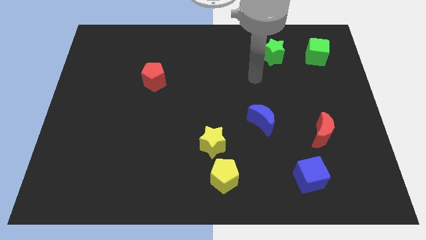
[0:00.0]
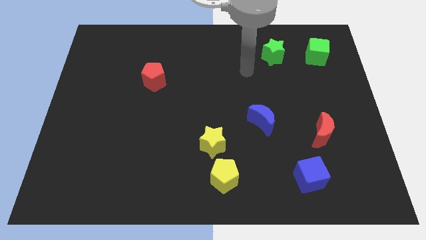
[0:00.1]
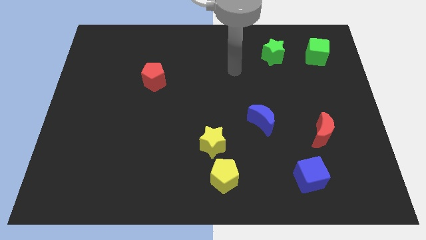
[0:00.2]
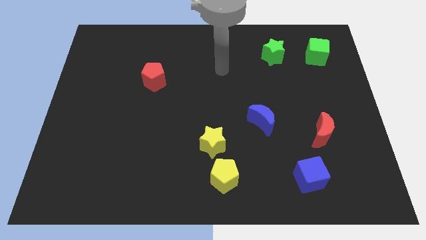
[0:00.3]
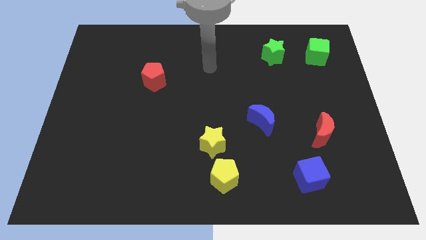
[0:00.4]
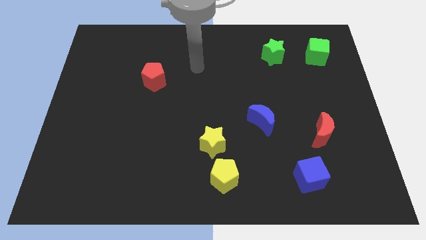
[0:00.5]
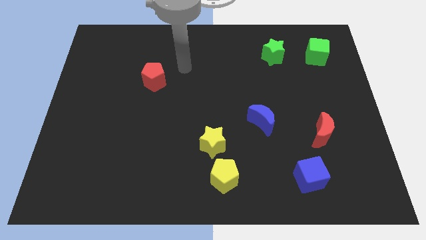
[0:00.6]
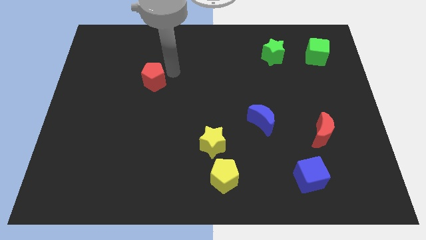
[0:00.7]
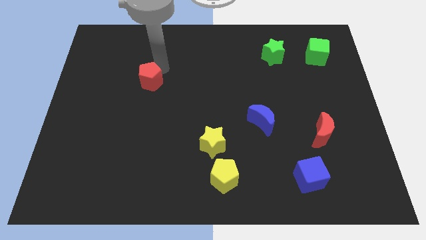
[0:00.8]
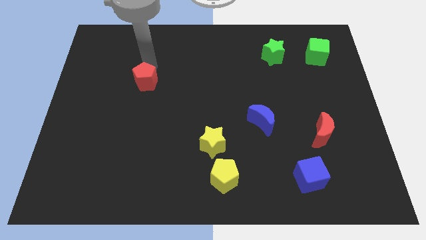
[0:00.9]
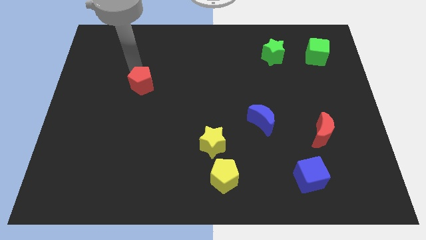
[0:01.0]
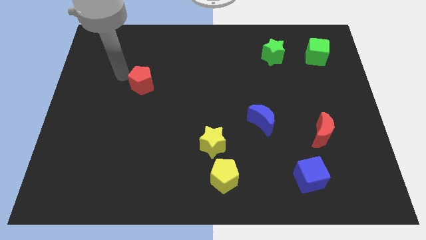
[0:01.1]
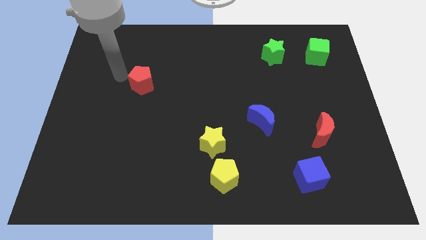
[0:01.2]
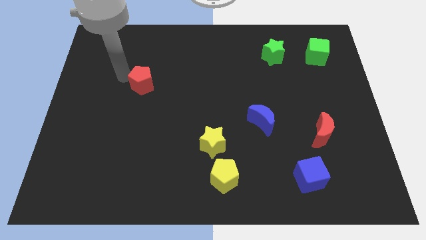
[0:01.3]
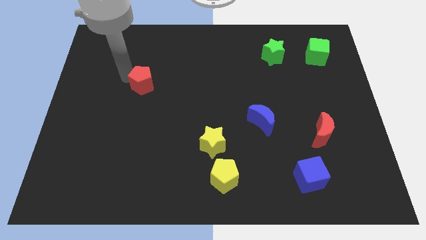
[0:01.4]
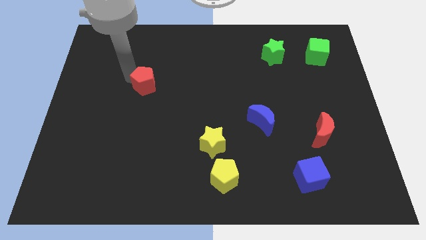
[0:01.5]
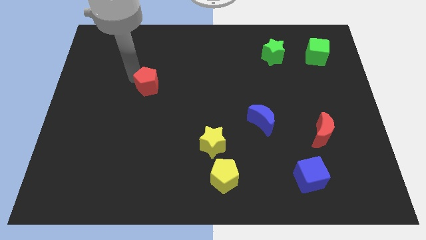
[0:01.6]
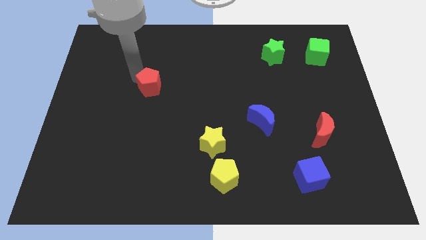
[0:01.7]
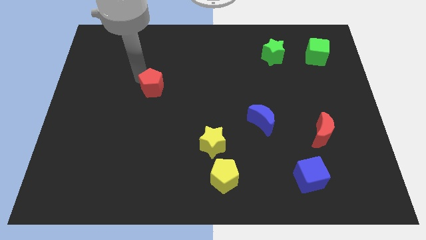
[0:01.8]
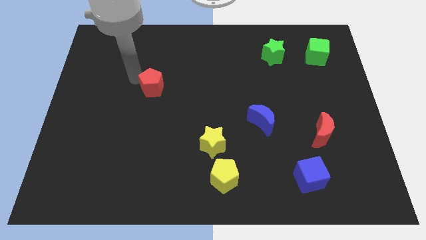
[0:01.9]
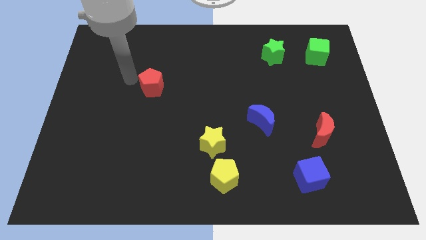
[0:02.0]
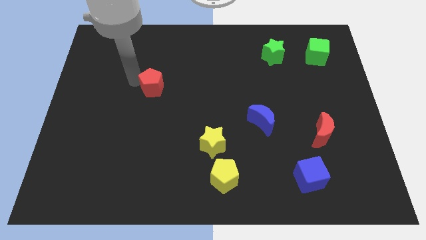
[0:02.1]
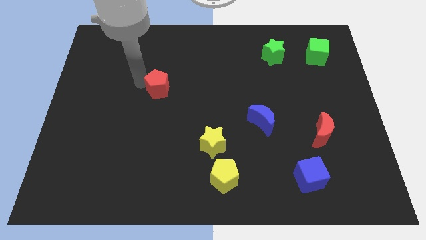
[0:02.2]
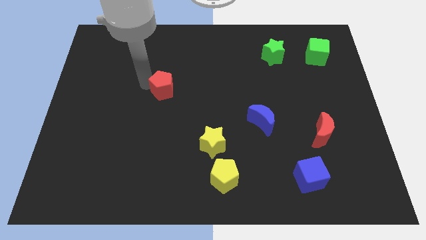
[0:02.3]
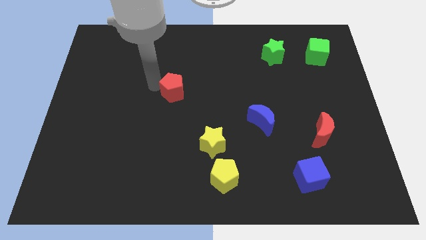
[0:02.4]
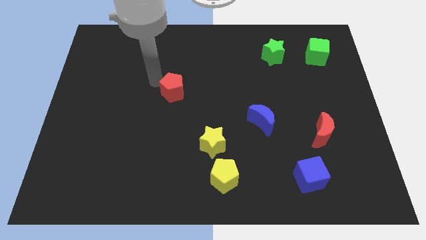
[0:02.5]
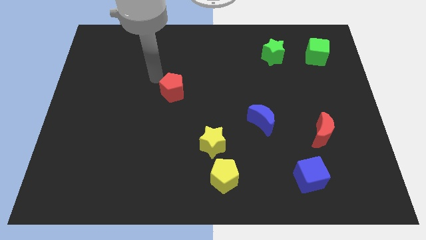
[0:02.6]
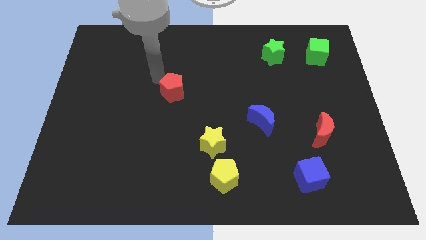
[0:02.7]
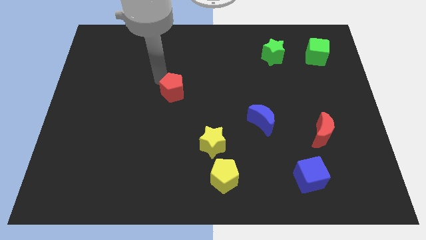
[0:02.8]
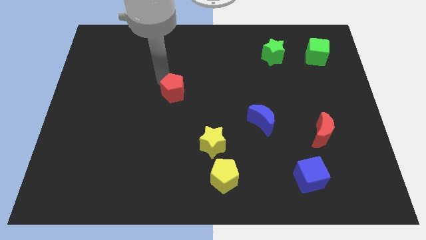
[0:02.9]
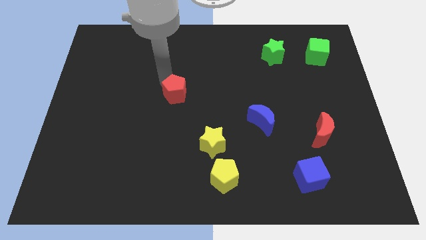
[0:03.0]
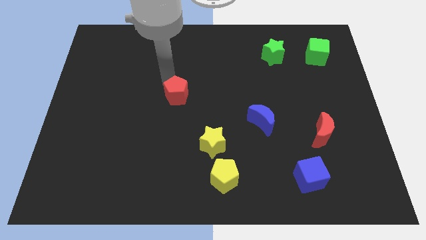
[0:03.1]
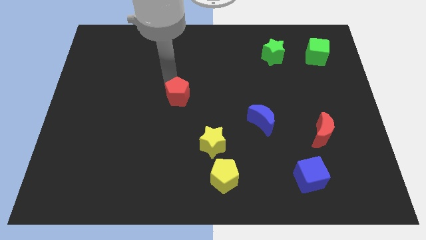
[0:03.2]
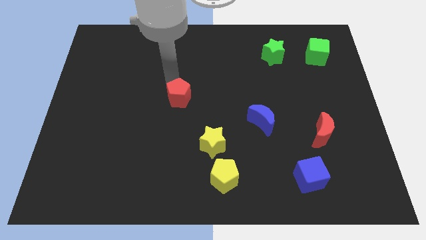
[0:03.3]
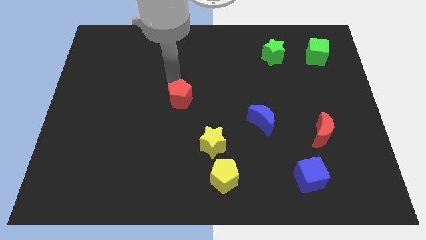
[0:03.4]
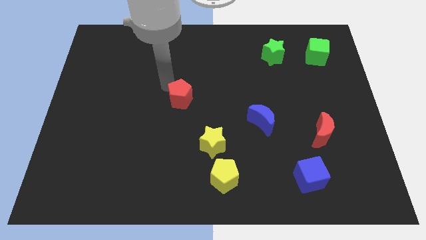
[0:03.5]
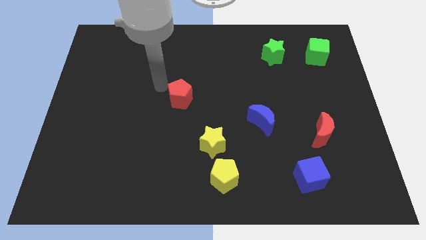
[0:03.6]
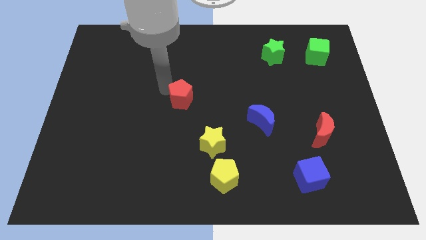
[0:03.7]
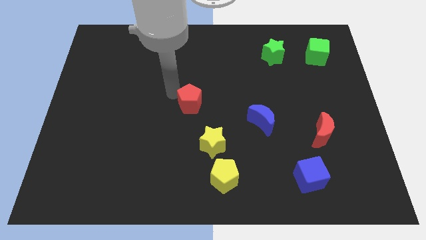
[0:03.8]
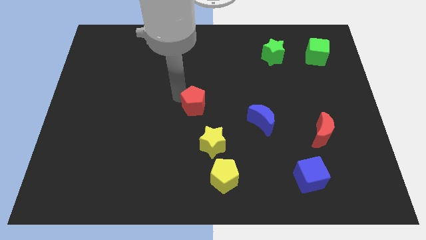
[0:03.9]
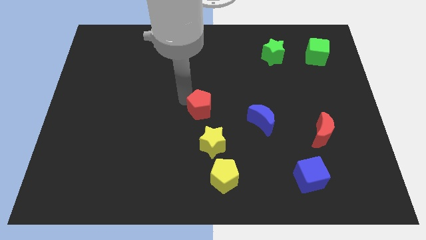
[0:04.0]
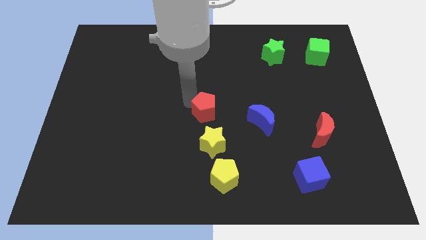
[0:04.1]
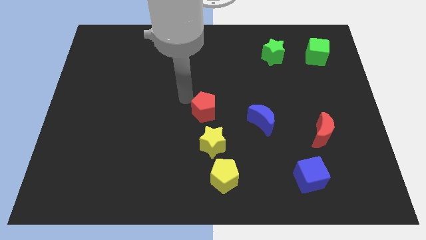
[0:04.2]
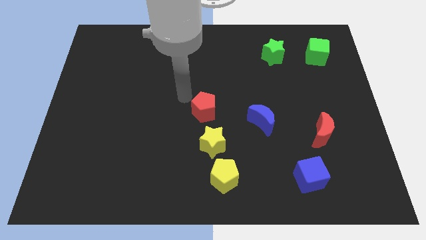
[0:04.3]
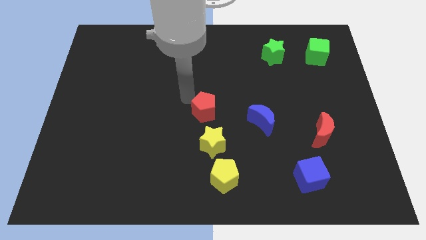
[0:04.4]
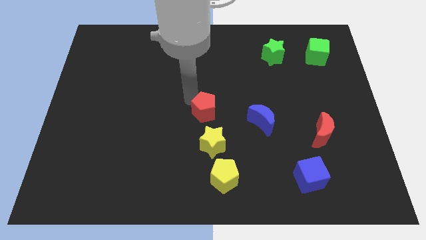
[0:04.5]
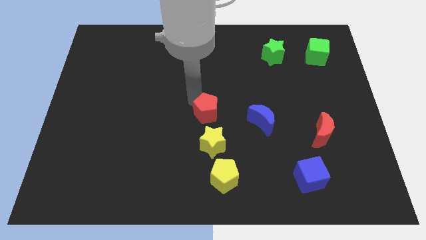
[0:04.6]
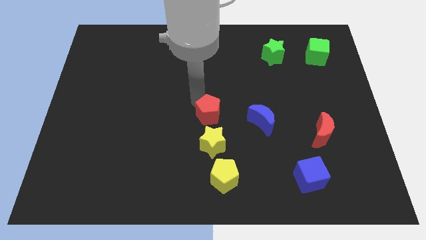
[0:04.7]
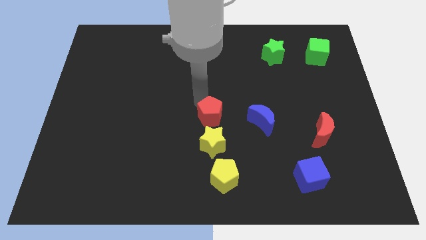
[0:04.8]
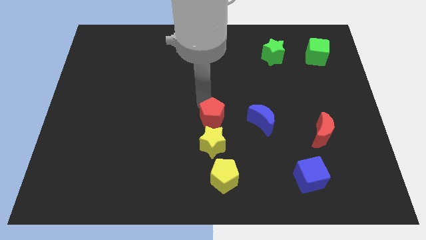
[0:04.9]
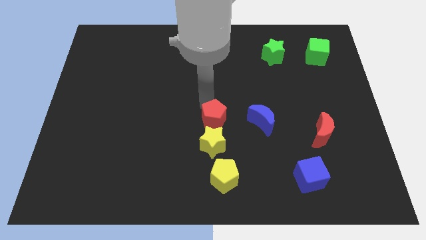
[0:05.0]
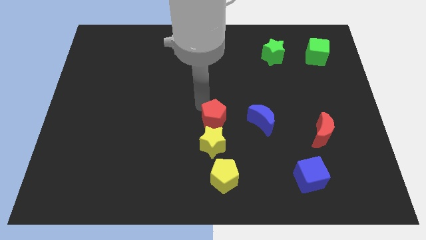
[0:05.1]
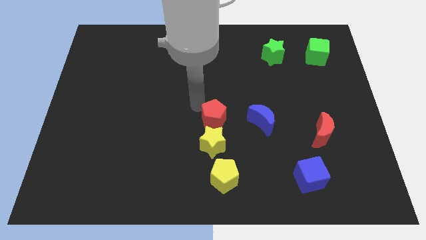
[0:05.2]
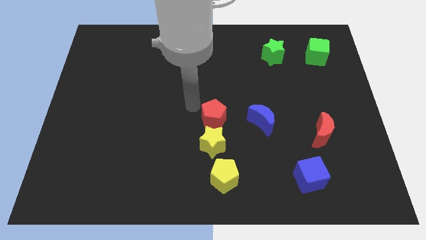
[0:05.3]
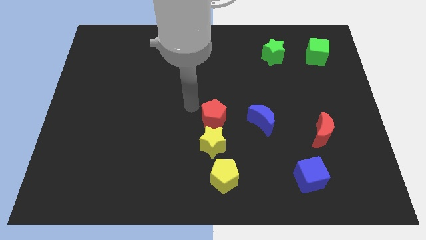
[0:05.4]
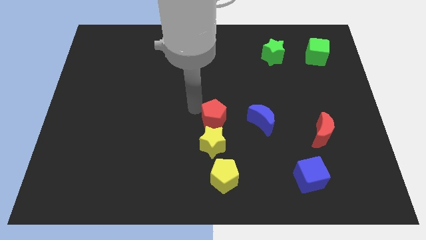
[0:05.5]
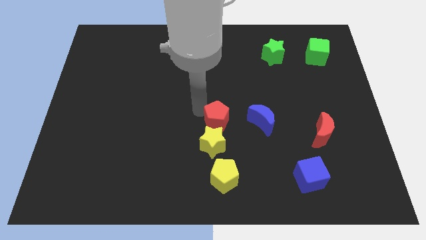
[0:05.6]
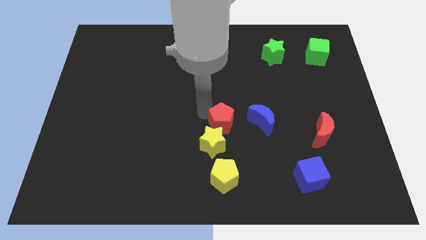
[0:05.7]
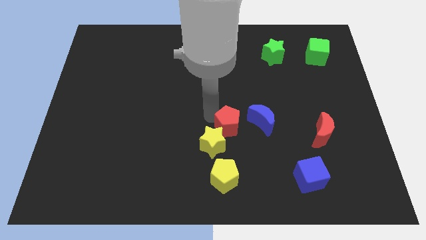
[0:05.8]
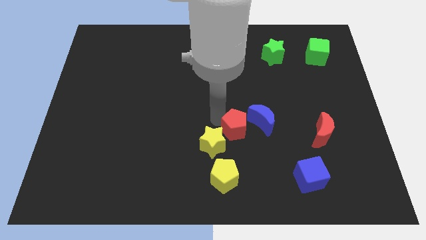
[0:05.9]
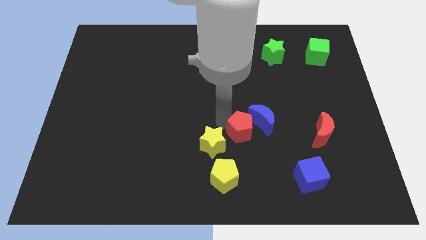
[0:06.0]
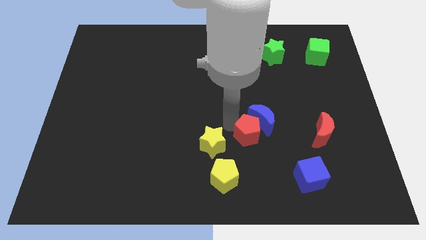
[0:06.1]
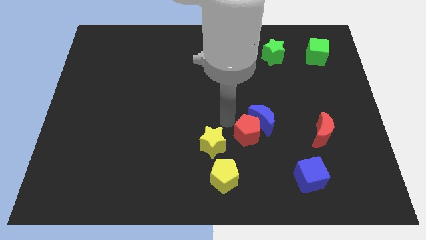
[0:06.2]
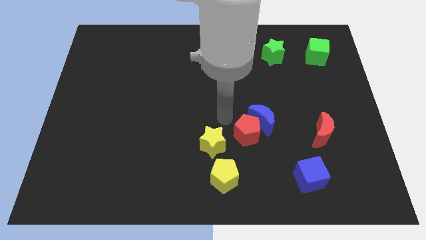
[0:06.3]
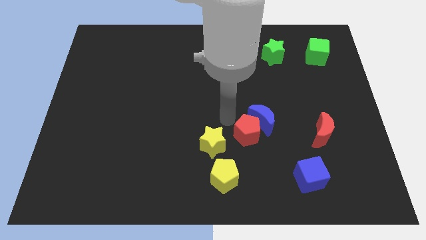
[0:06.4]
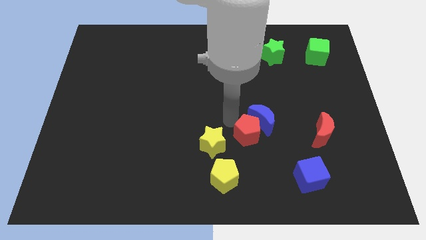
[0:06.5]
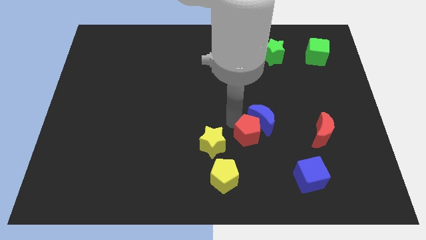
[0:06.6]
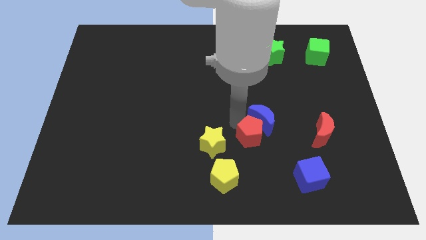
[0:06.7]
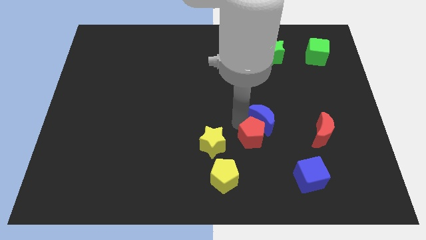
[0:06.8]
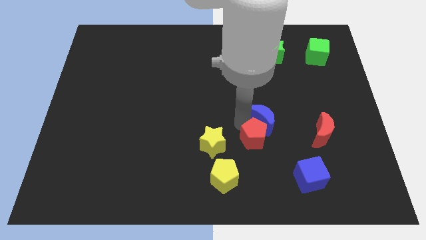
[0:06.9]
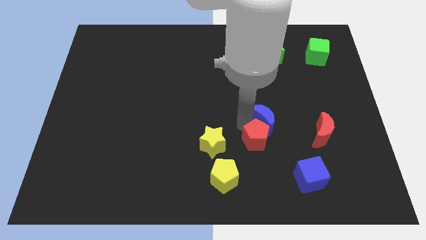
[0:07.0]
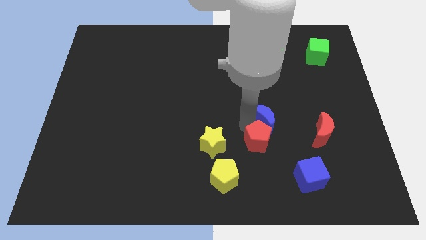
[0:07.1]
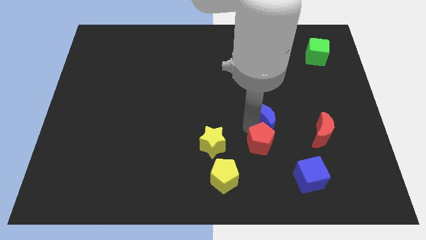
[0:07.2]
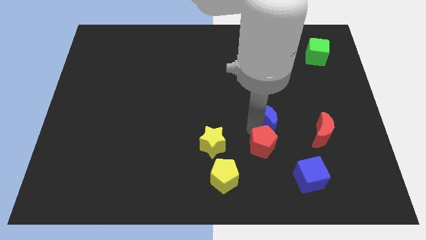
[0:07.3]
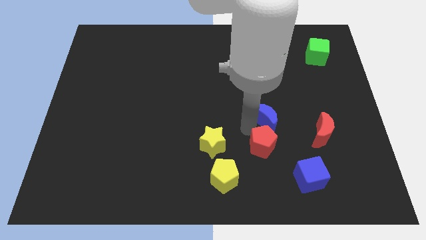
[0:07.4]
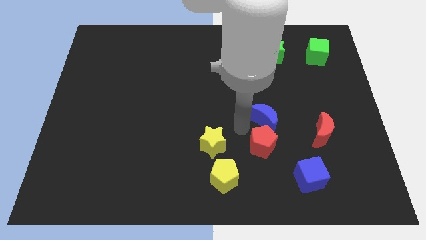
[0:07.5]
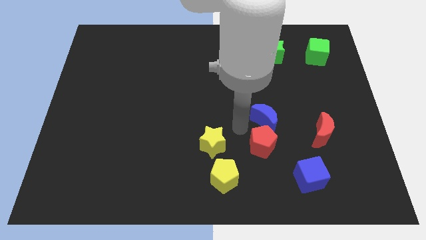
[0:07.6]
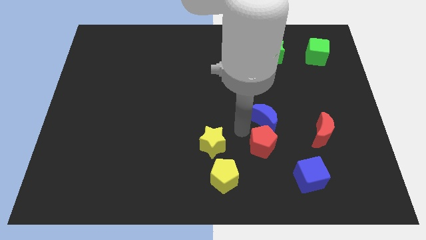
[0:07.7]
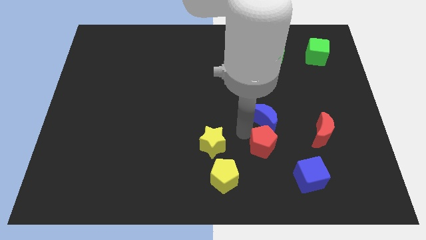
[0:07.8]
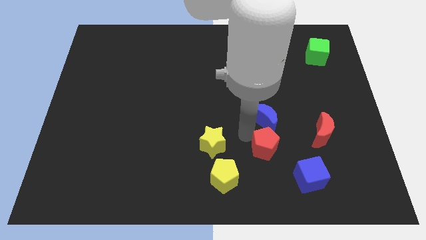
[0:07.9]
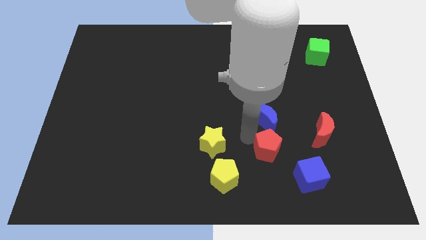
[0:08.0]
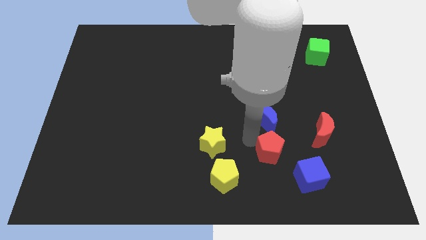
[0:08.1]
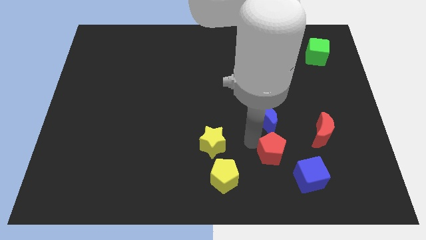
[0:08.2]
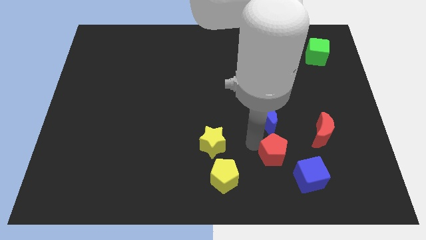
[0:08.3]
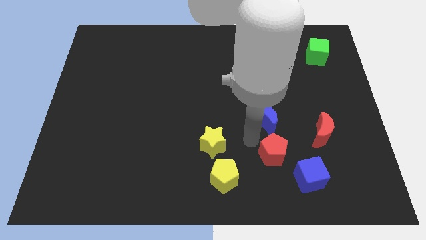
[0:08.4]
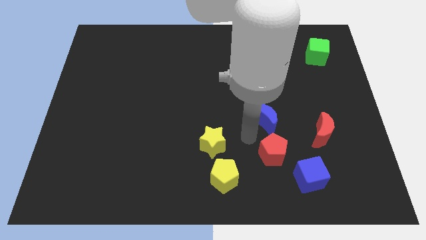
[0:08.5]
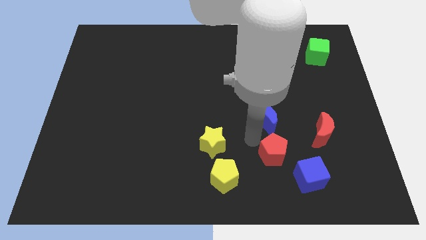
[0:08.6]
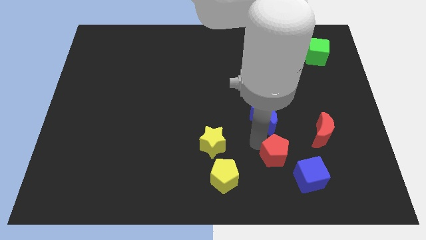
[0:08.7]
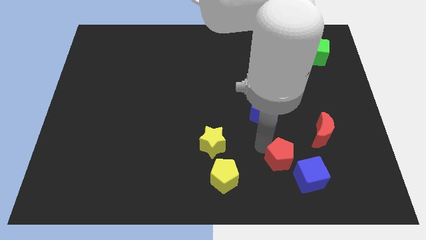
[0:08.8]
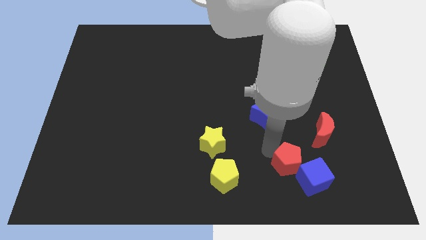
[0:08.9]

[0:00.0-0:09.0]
slide the red pentagon to the blue cube
